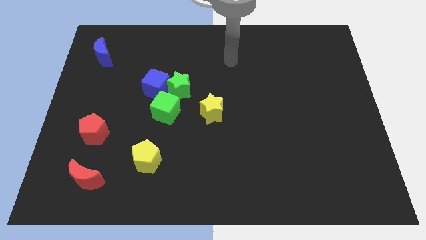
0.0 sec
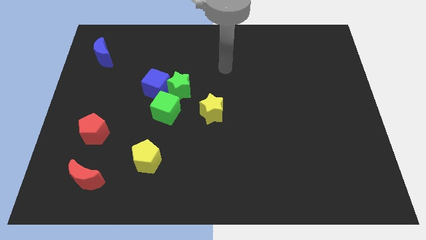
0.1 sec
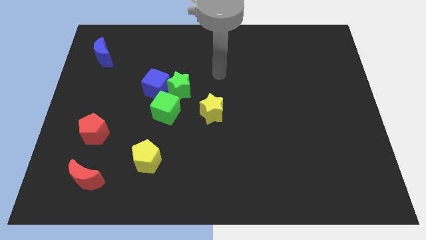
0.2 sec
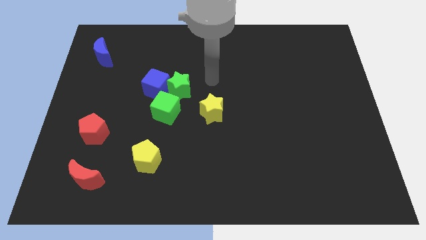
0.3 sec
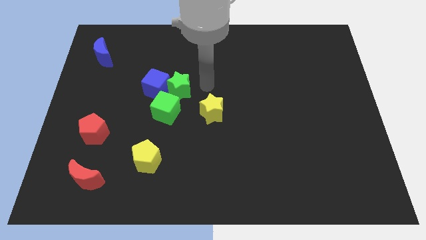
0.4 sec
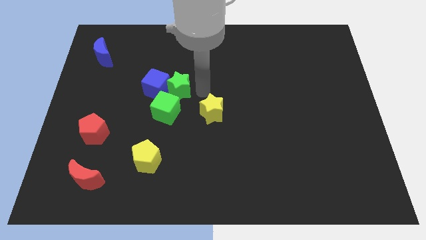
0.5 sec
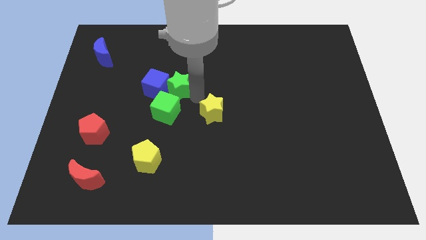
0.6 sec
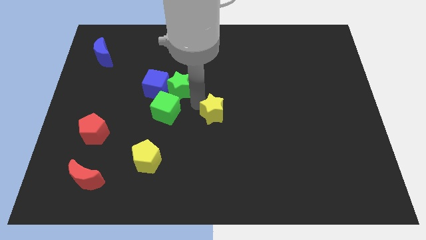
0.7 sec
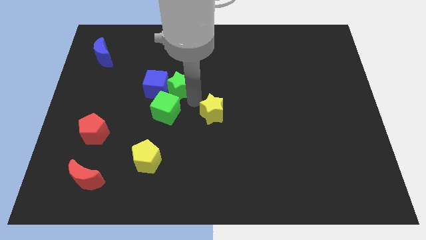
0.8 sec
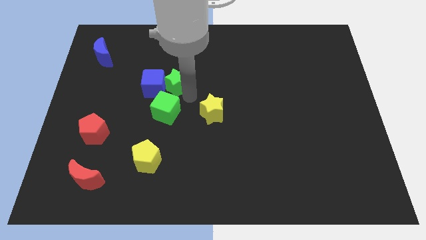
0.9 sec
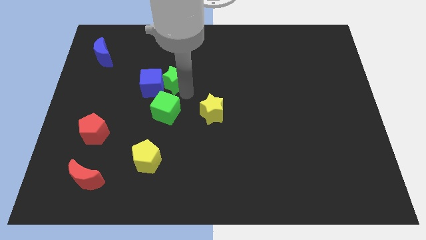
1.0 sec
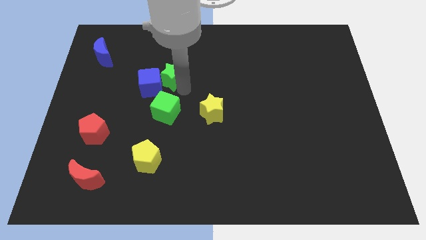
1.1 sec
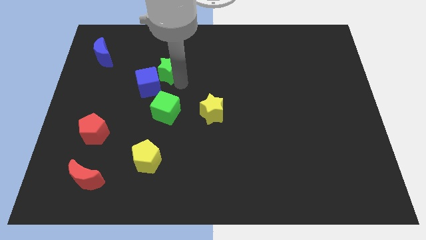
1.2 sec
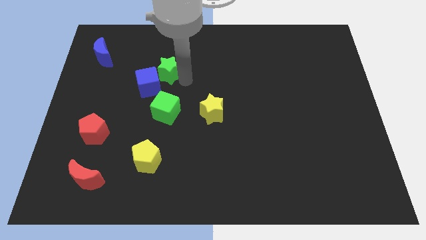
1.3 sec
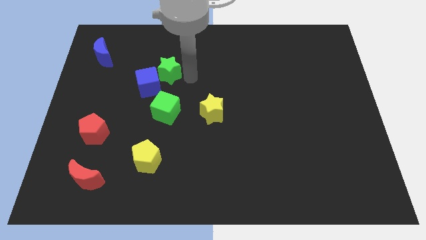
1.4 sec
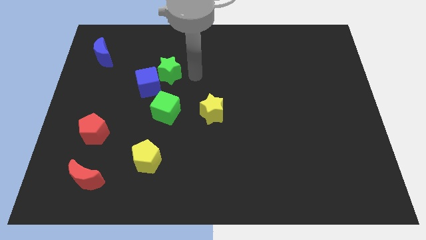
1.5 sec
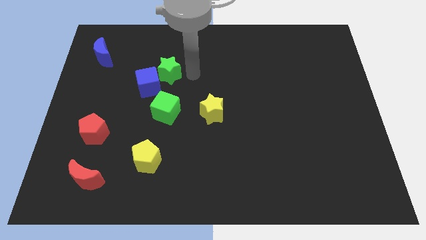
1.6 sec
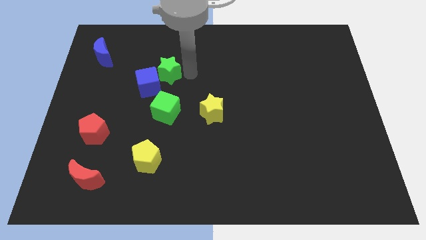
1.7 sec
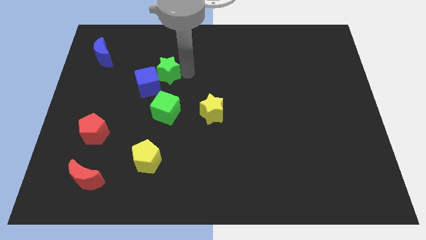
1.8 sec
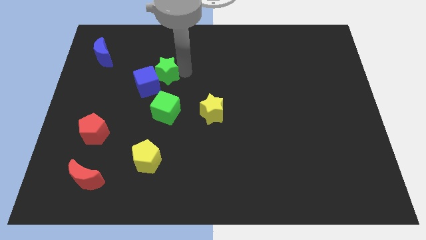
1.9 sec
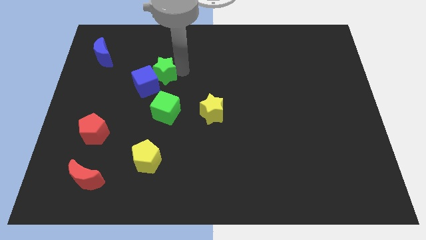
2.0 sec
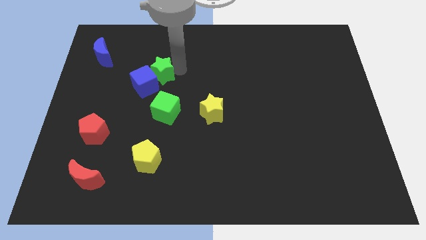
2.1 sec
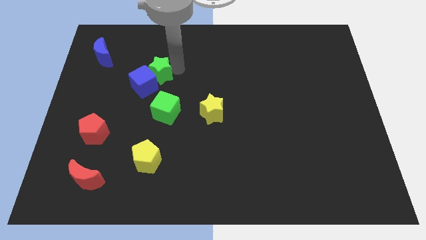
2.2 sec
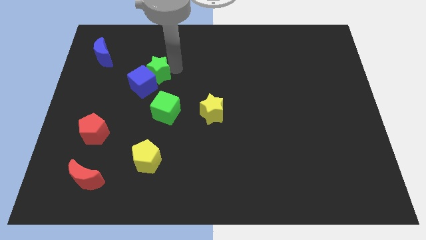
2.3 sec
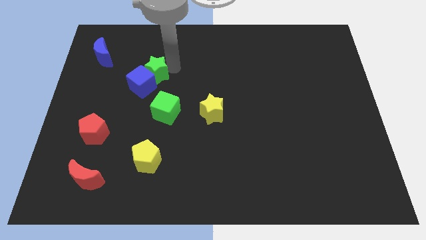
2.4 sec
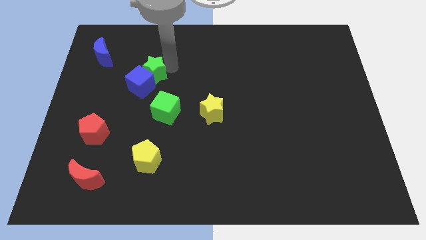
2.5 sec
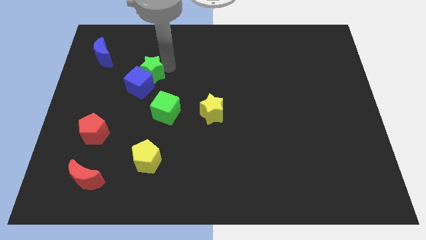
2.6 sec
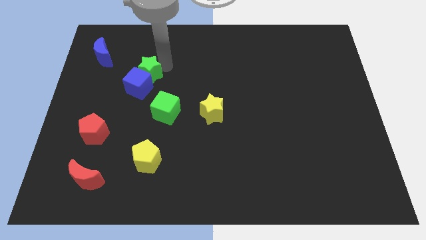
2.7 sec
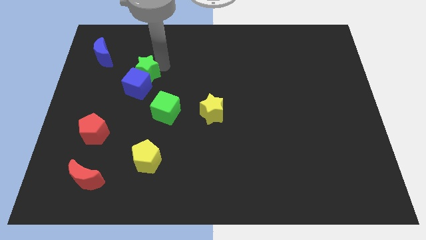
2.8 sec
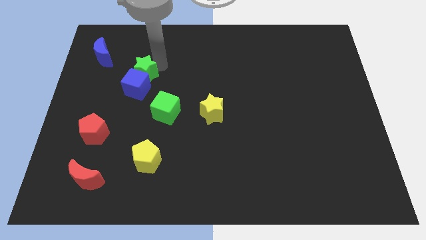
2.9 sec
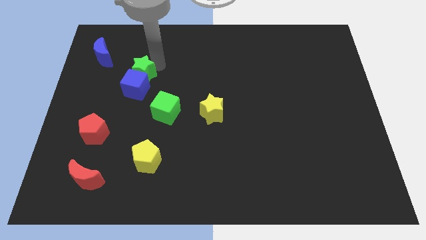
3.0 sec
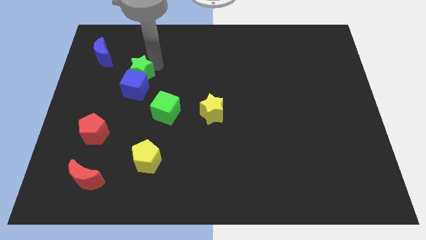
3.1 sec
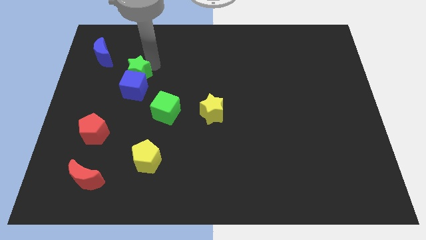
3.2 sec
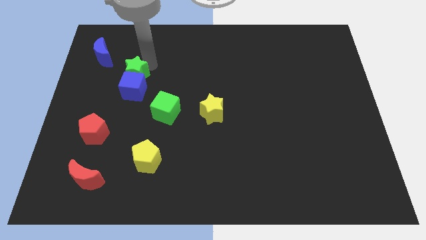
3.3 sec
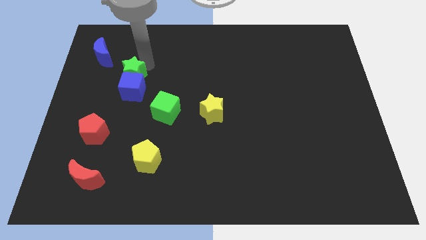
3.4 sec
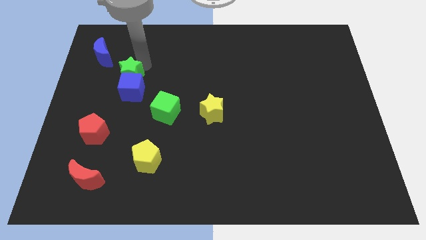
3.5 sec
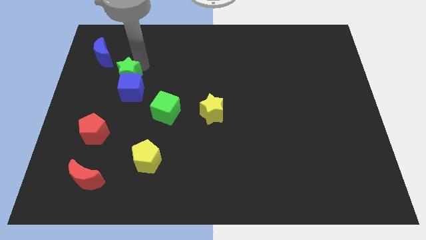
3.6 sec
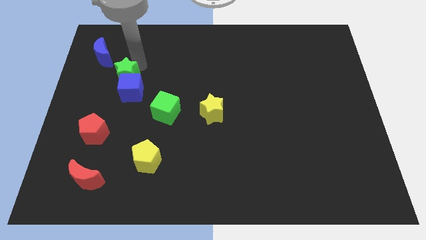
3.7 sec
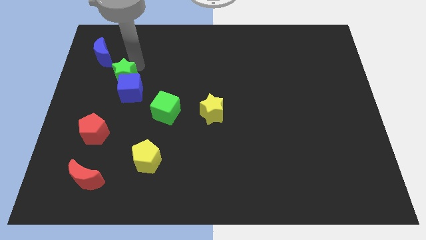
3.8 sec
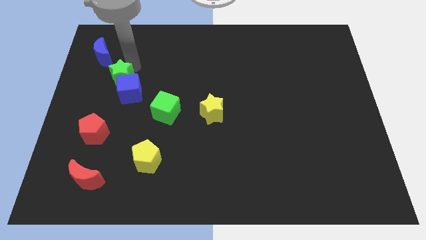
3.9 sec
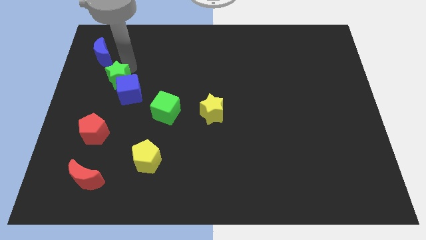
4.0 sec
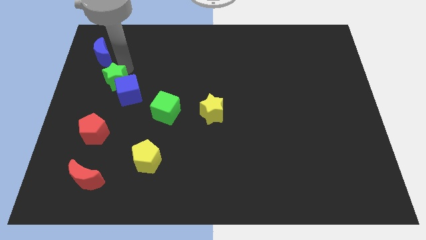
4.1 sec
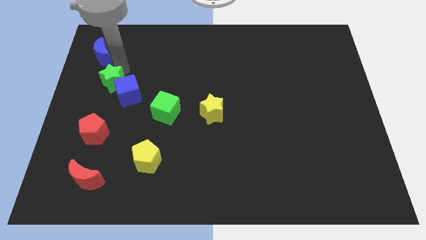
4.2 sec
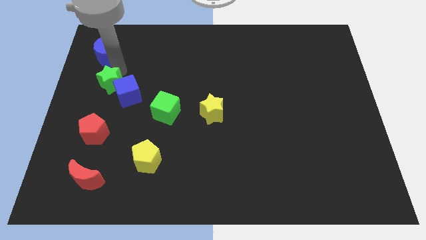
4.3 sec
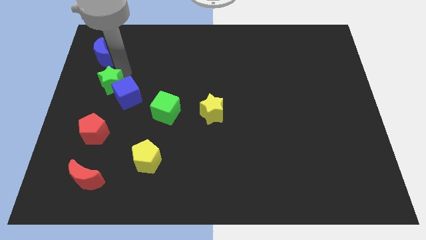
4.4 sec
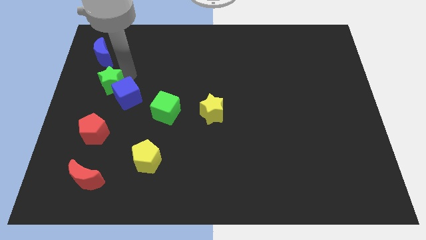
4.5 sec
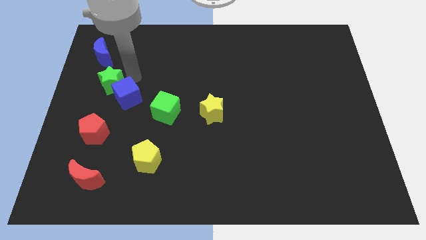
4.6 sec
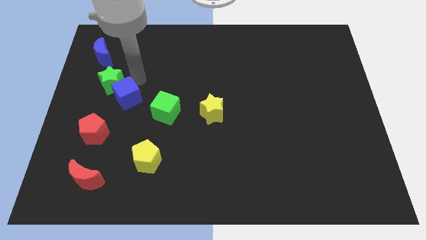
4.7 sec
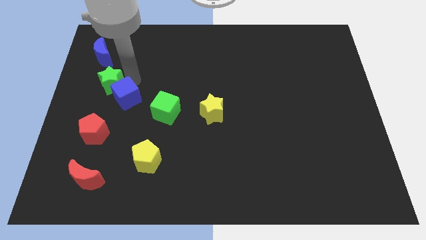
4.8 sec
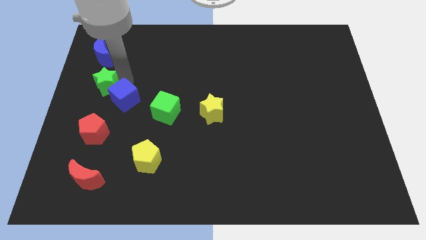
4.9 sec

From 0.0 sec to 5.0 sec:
put the green star to the left side of the board

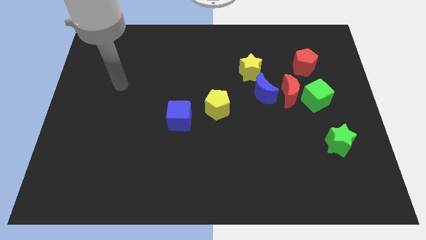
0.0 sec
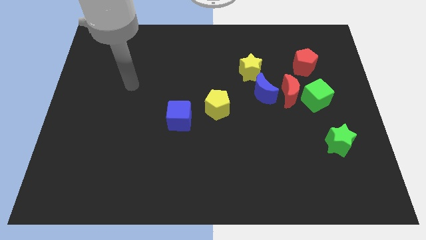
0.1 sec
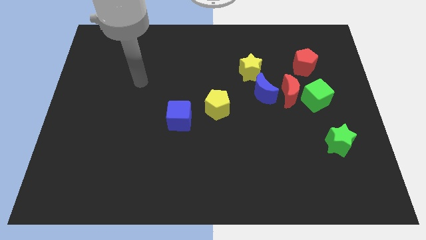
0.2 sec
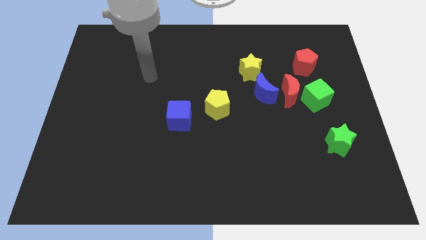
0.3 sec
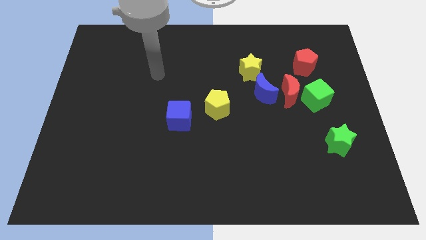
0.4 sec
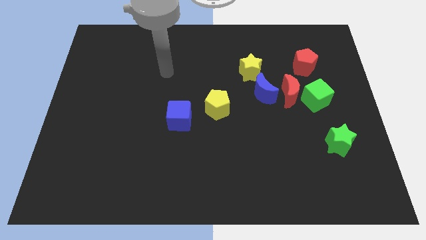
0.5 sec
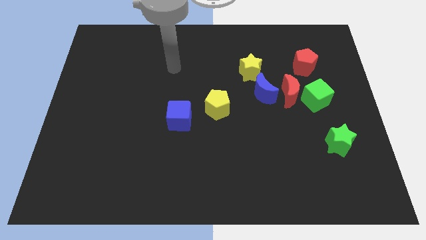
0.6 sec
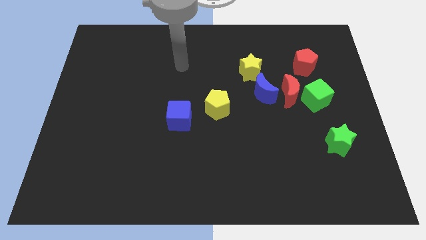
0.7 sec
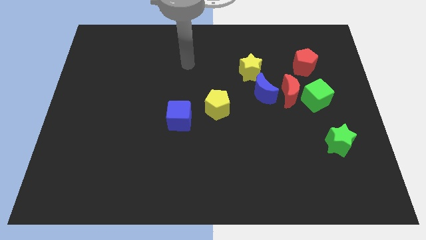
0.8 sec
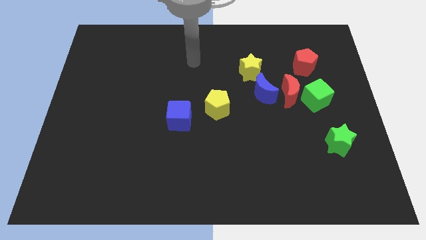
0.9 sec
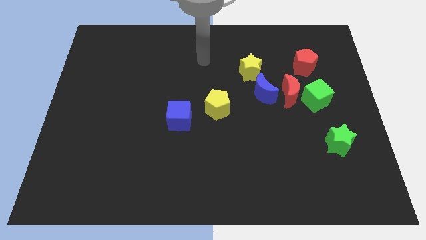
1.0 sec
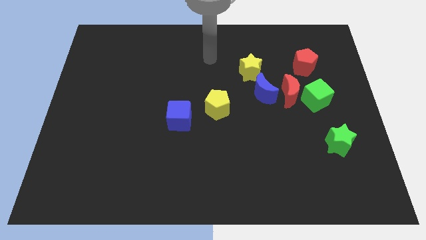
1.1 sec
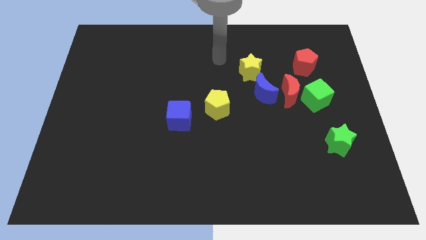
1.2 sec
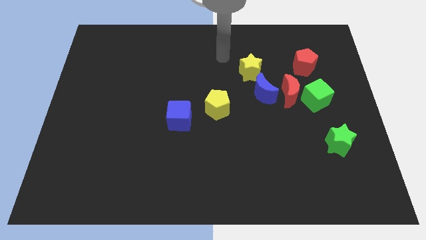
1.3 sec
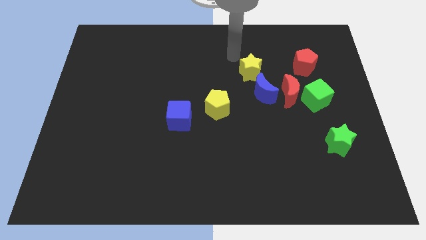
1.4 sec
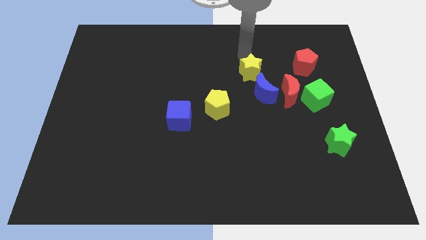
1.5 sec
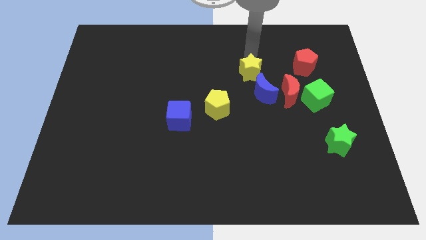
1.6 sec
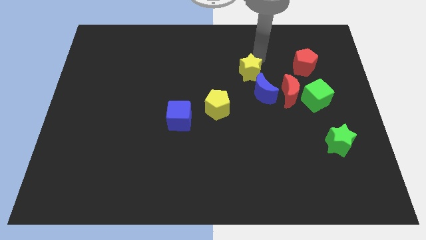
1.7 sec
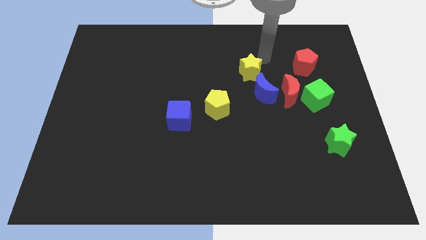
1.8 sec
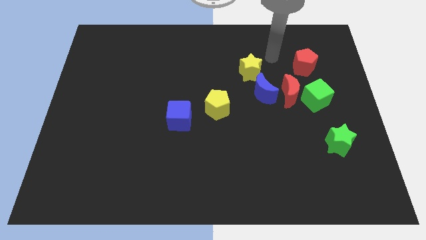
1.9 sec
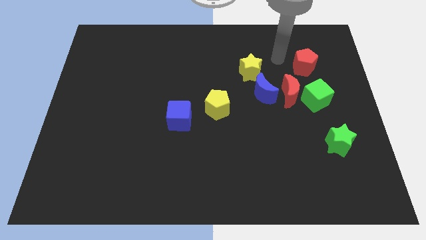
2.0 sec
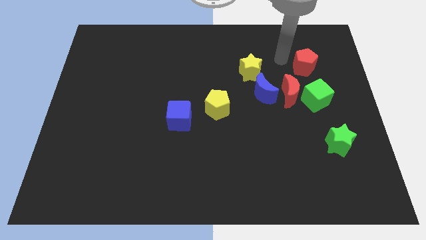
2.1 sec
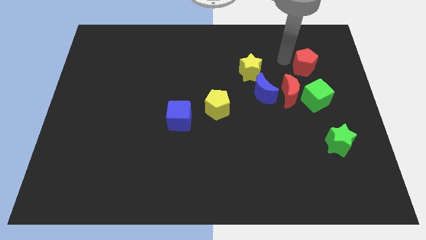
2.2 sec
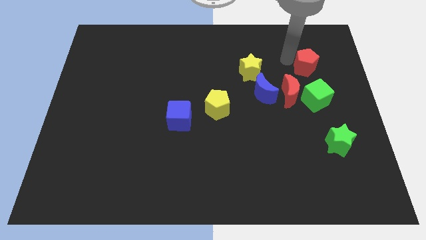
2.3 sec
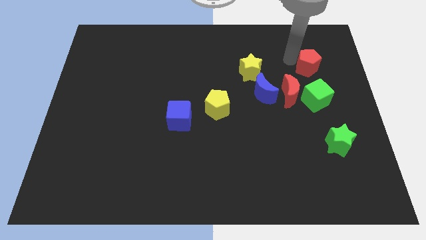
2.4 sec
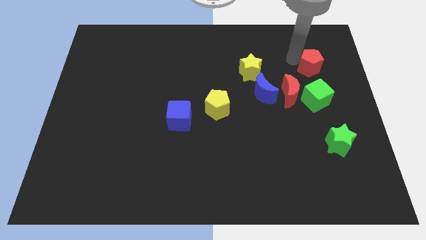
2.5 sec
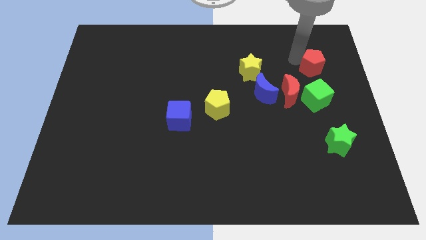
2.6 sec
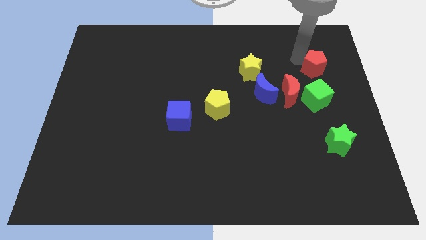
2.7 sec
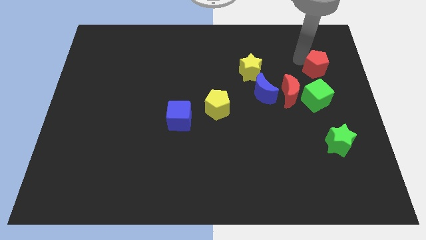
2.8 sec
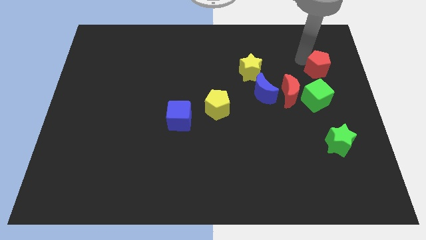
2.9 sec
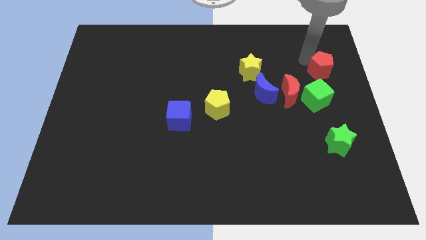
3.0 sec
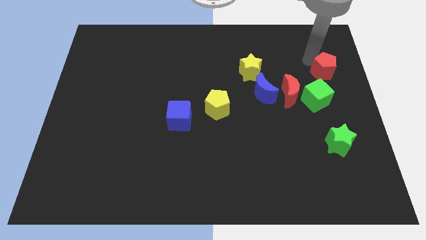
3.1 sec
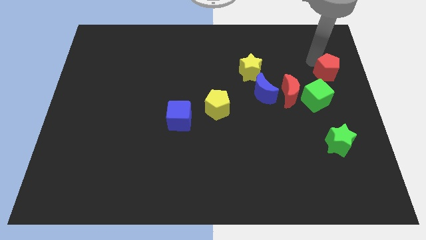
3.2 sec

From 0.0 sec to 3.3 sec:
put the red pentagon to the center right
